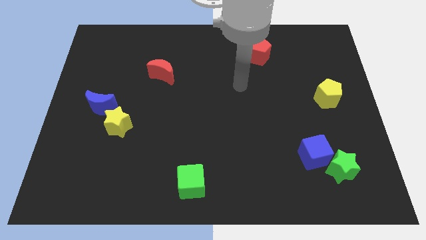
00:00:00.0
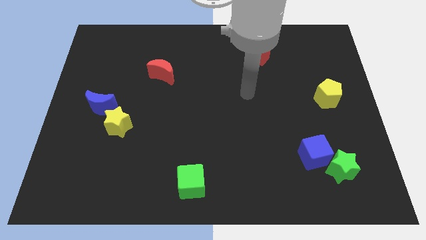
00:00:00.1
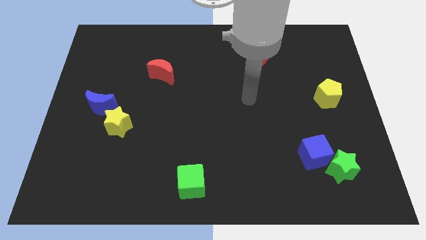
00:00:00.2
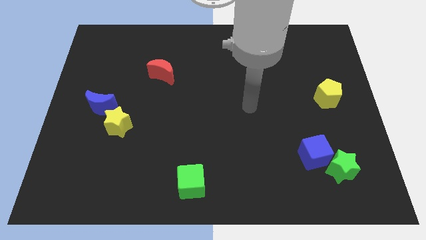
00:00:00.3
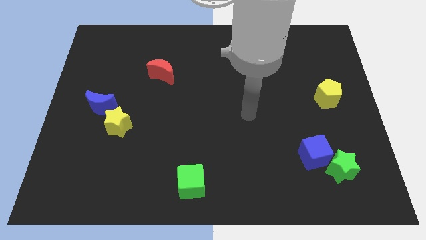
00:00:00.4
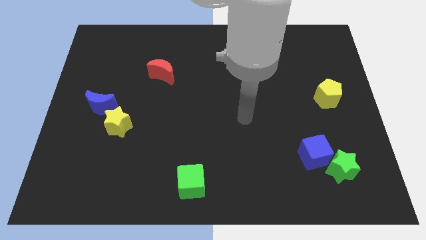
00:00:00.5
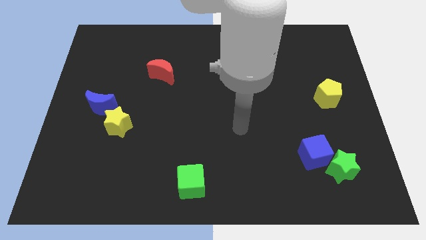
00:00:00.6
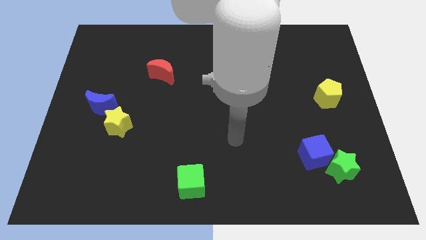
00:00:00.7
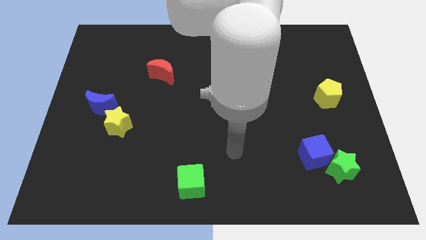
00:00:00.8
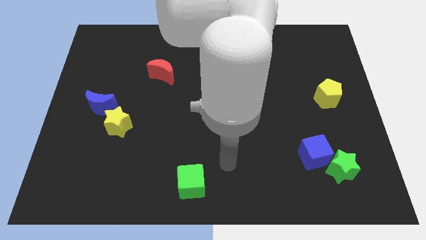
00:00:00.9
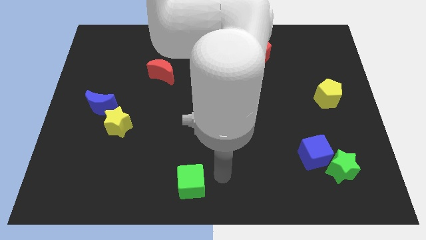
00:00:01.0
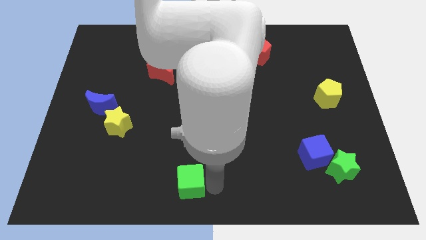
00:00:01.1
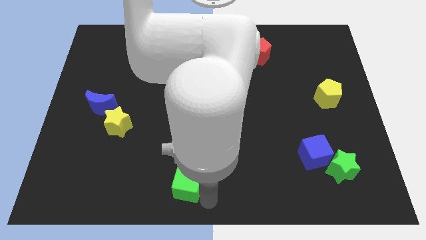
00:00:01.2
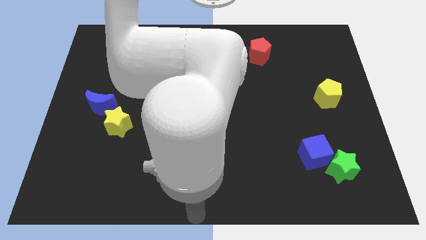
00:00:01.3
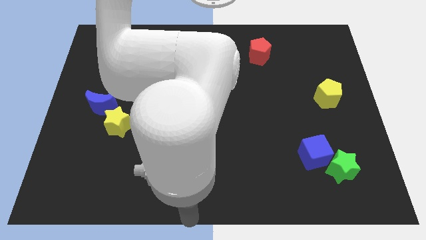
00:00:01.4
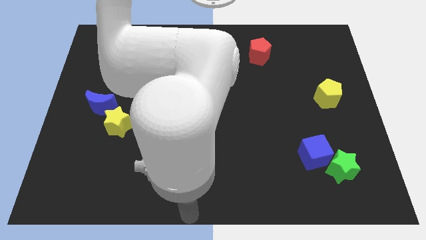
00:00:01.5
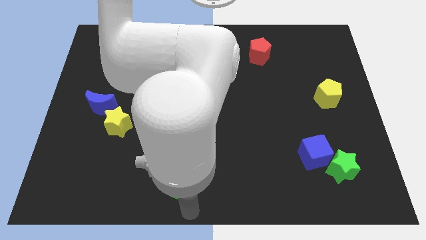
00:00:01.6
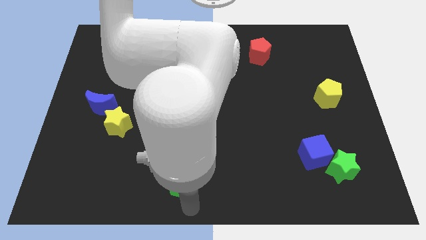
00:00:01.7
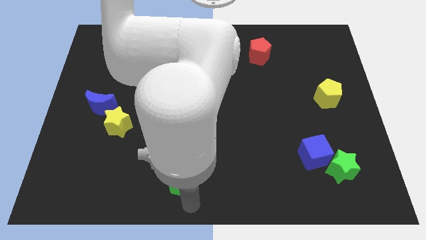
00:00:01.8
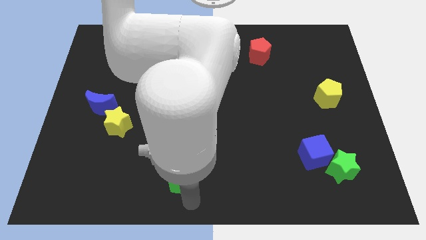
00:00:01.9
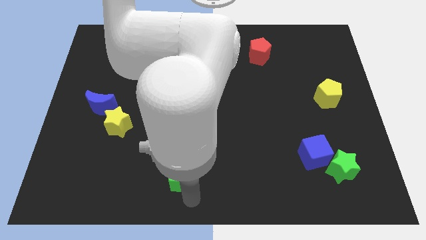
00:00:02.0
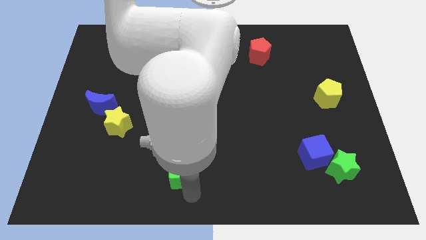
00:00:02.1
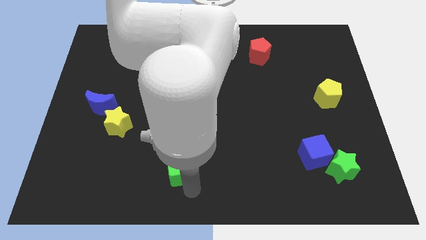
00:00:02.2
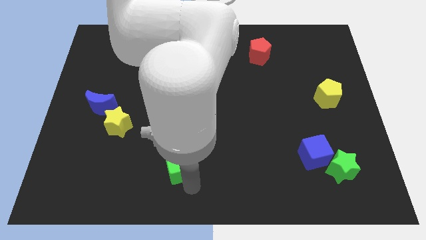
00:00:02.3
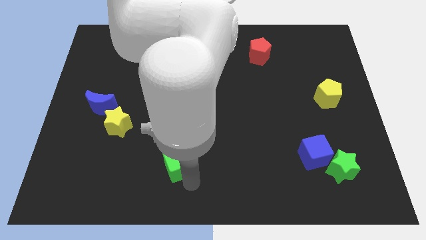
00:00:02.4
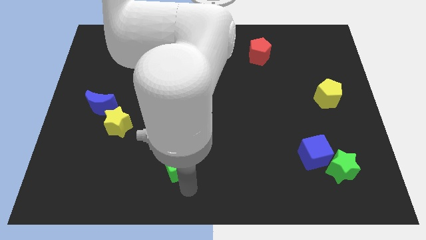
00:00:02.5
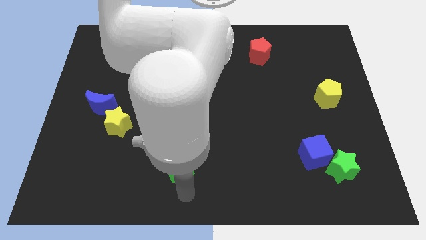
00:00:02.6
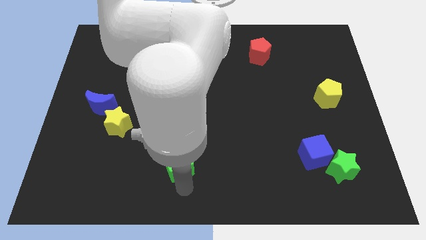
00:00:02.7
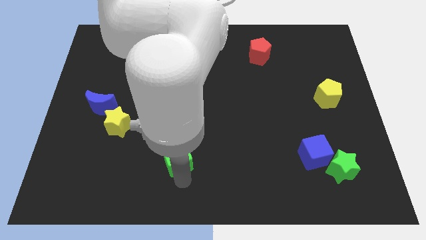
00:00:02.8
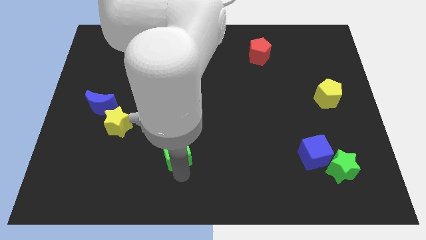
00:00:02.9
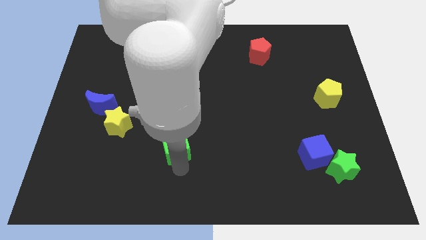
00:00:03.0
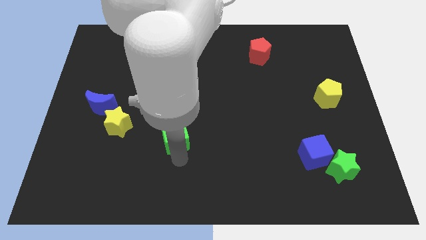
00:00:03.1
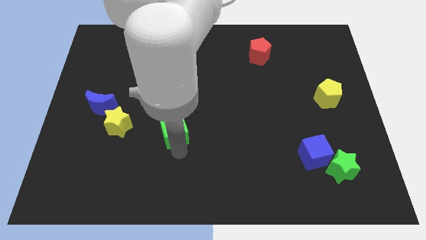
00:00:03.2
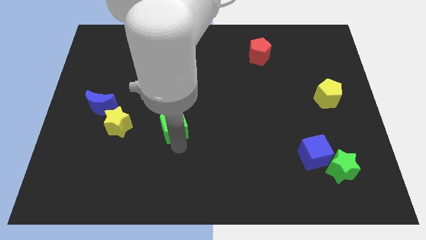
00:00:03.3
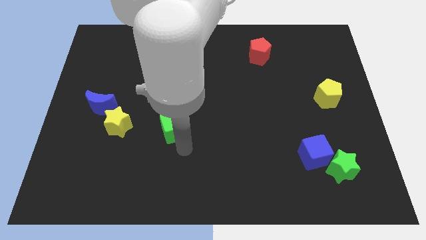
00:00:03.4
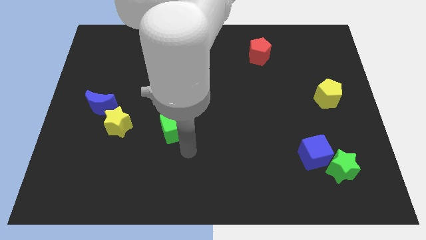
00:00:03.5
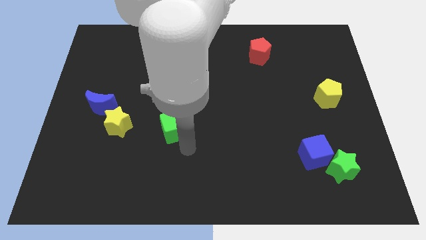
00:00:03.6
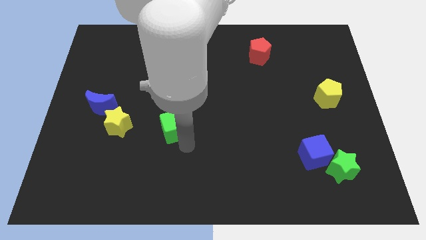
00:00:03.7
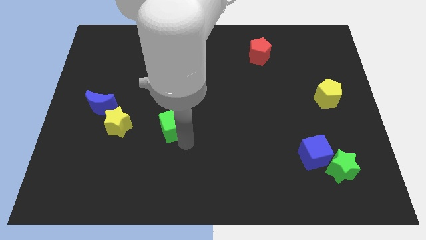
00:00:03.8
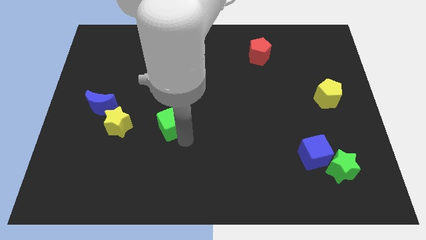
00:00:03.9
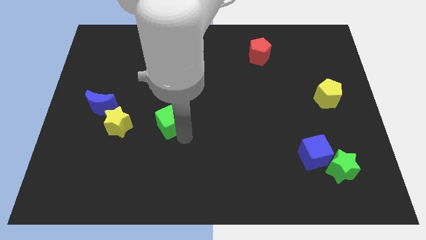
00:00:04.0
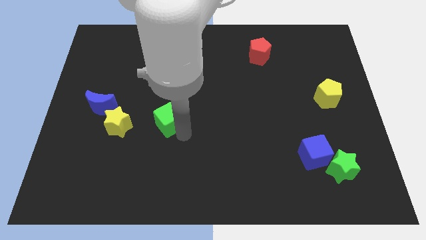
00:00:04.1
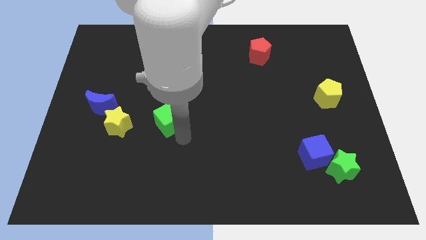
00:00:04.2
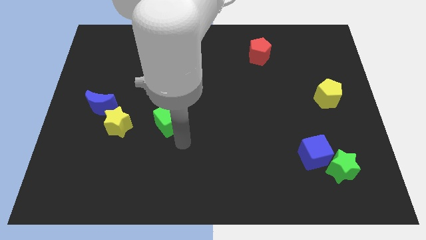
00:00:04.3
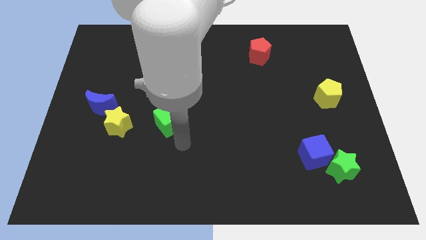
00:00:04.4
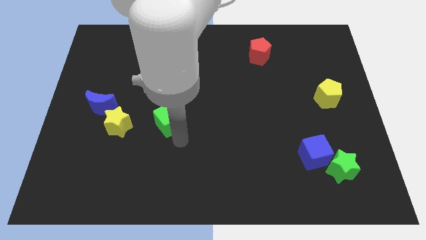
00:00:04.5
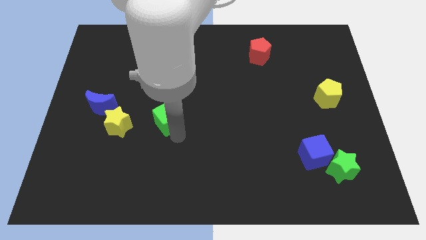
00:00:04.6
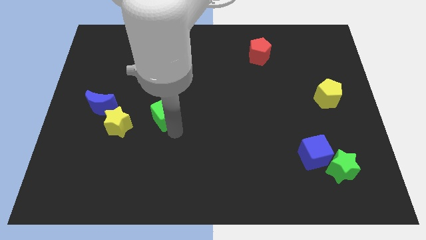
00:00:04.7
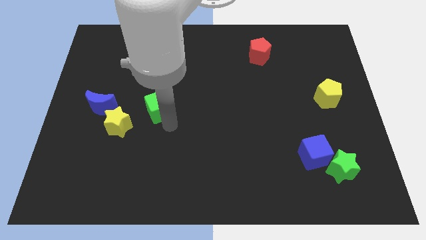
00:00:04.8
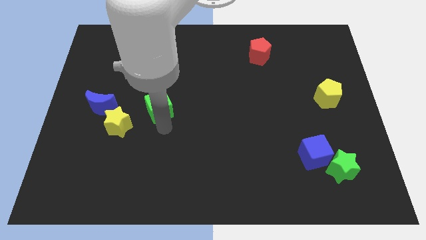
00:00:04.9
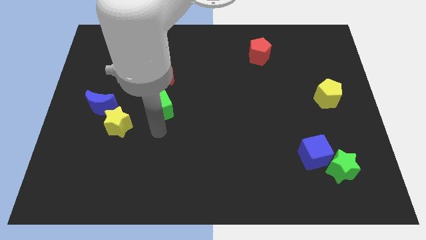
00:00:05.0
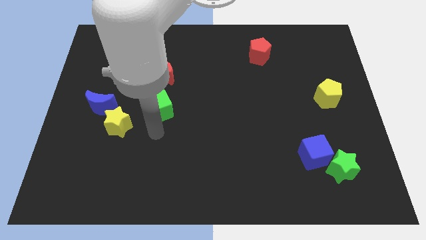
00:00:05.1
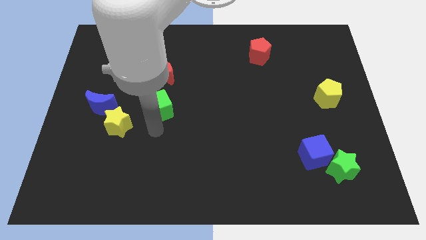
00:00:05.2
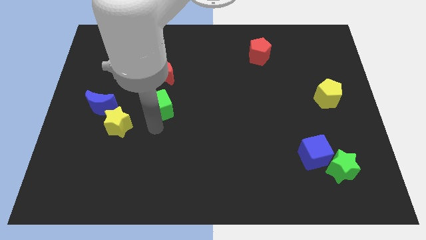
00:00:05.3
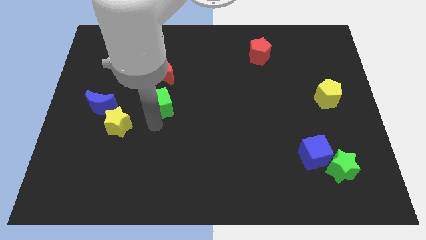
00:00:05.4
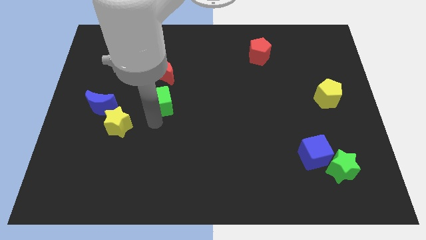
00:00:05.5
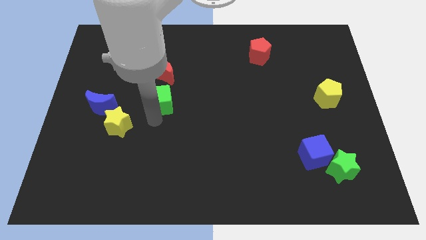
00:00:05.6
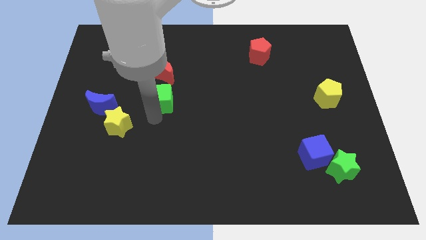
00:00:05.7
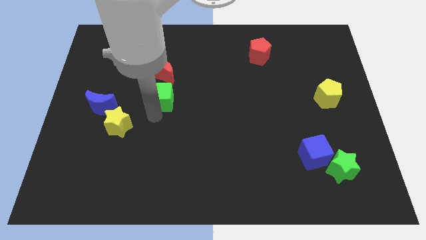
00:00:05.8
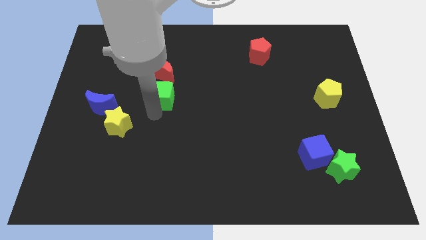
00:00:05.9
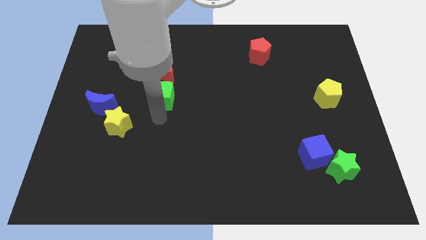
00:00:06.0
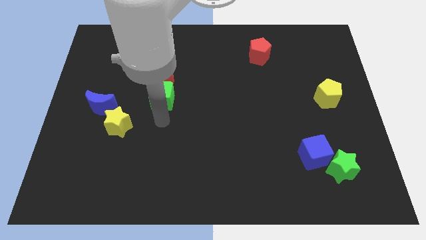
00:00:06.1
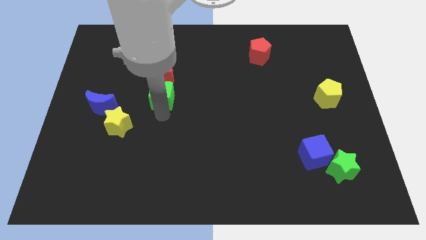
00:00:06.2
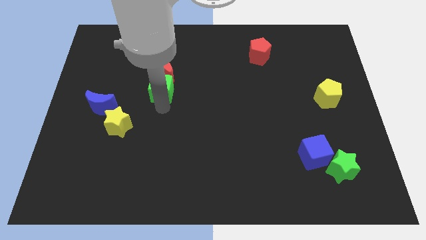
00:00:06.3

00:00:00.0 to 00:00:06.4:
slide the green cube towards the red moon

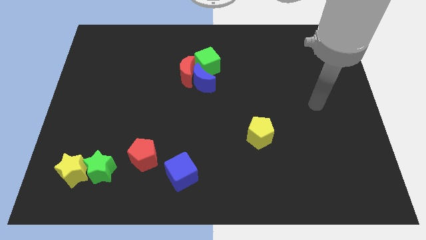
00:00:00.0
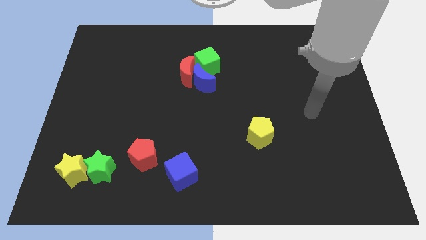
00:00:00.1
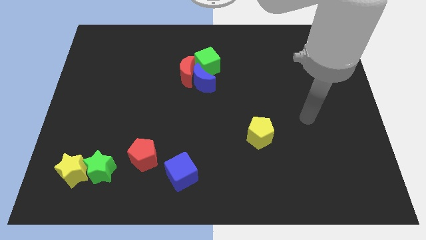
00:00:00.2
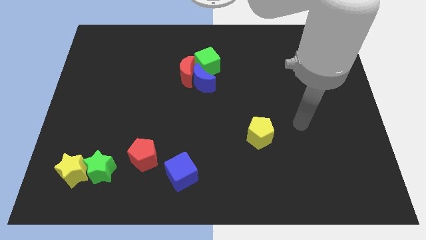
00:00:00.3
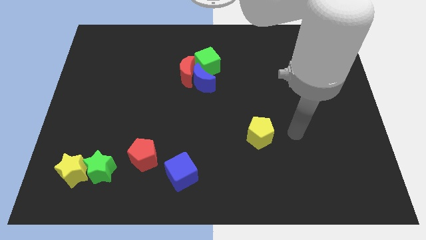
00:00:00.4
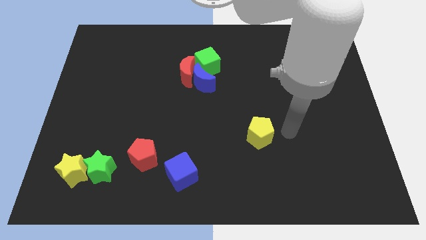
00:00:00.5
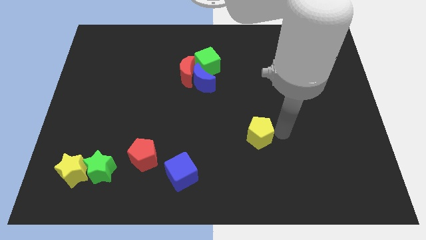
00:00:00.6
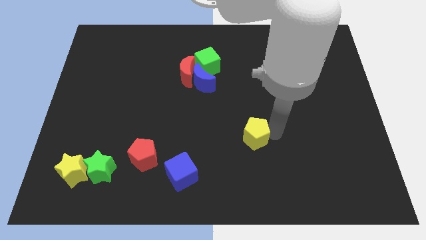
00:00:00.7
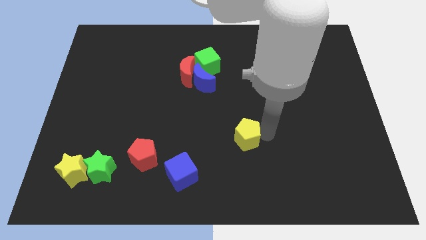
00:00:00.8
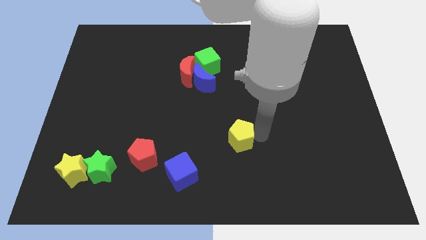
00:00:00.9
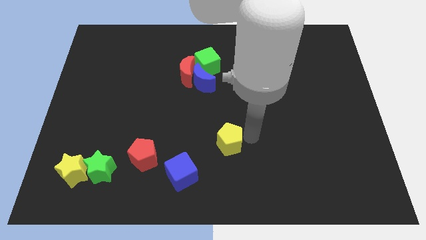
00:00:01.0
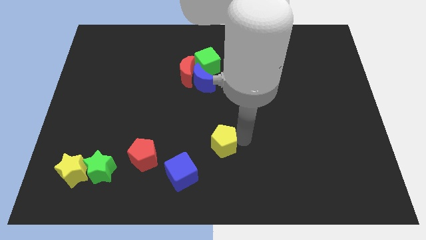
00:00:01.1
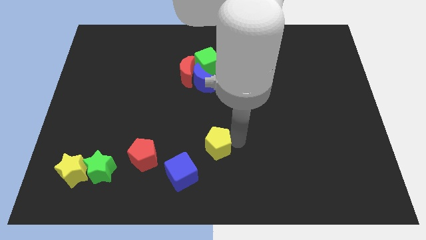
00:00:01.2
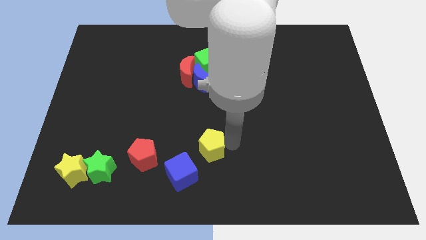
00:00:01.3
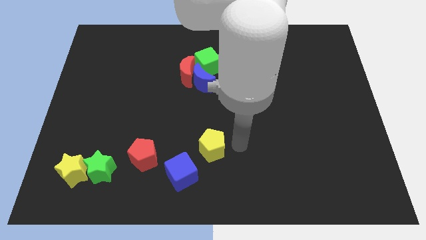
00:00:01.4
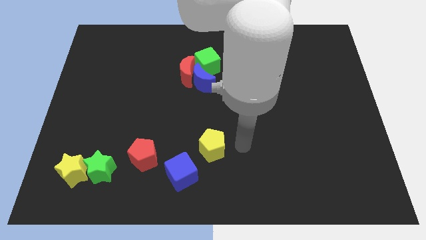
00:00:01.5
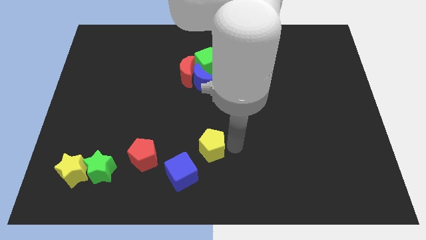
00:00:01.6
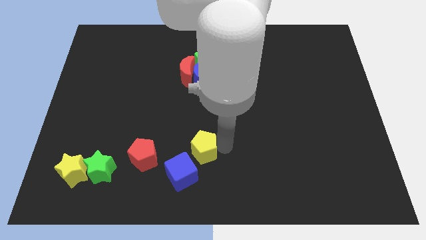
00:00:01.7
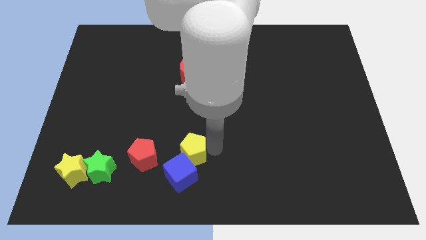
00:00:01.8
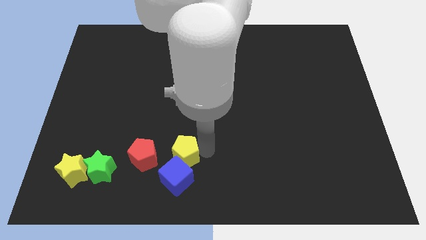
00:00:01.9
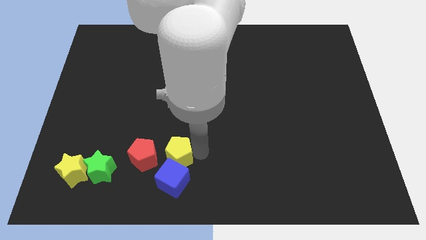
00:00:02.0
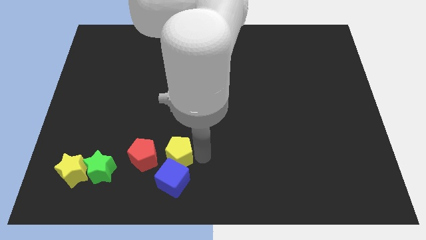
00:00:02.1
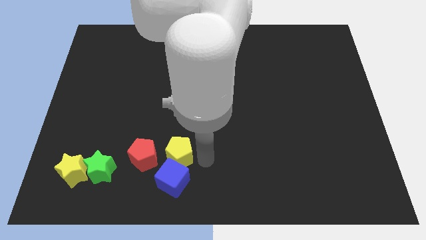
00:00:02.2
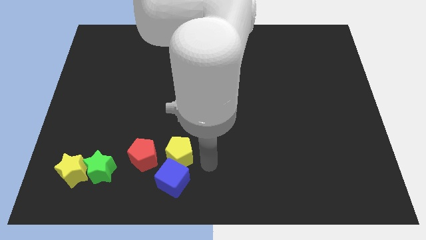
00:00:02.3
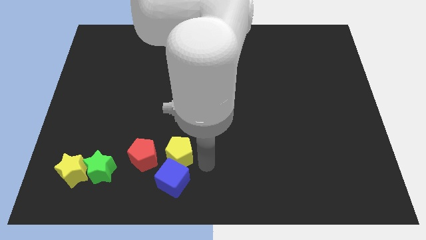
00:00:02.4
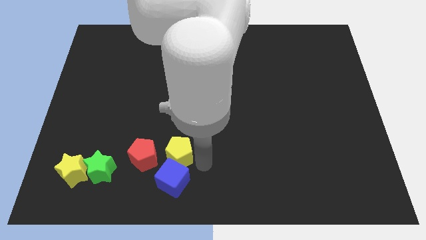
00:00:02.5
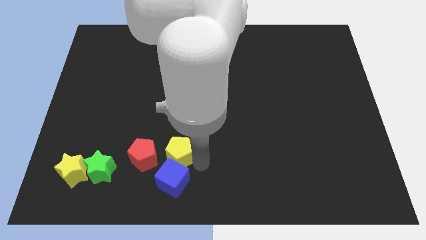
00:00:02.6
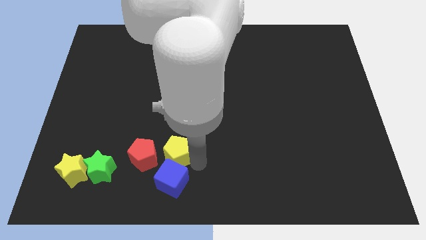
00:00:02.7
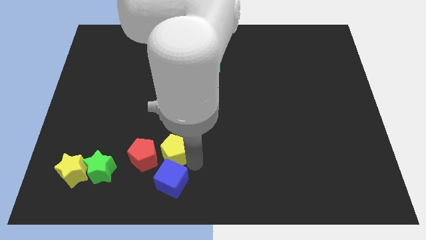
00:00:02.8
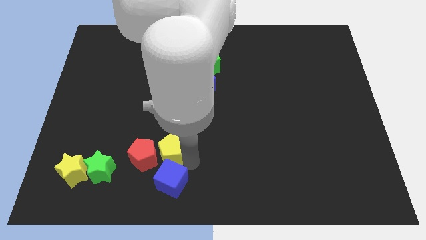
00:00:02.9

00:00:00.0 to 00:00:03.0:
push the yellow pentagon to the red pentagon
